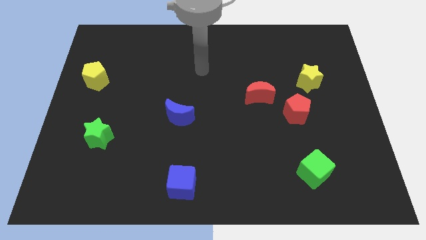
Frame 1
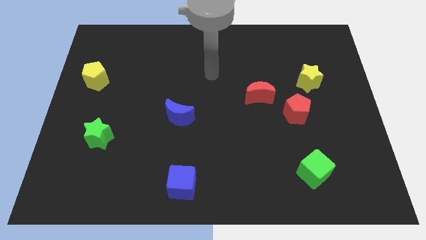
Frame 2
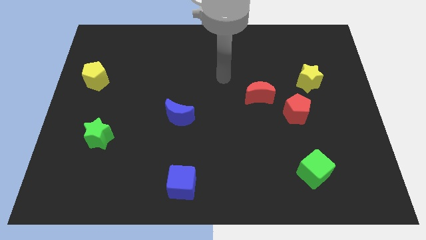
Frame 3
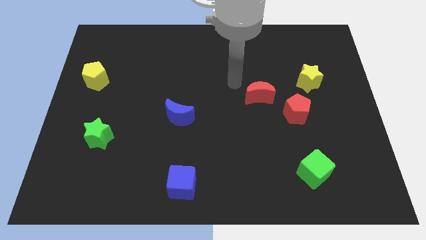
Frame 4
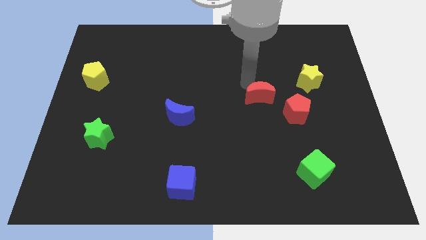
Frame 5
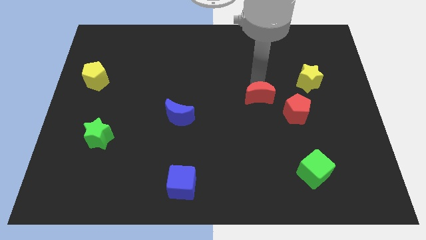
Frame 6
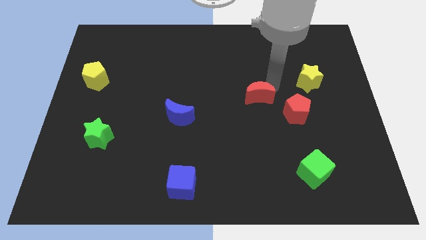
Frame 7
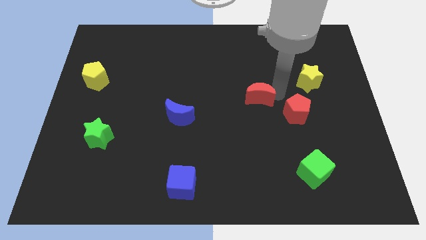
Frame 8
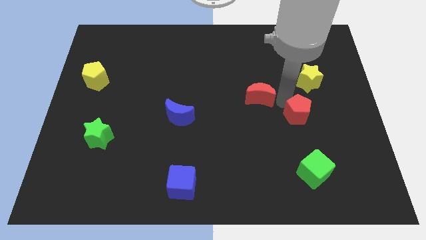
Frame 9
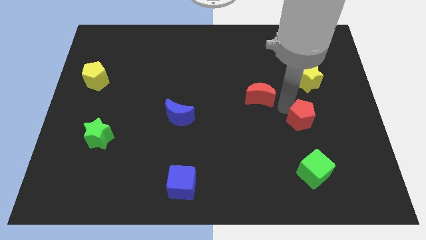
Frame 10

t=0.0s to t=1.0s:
pull the red moon apart from the red pentagon

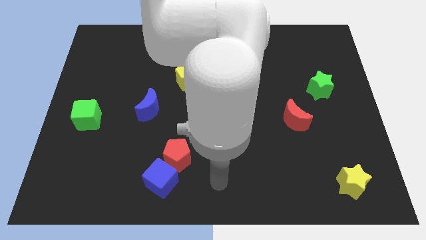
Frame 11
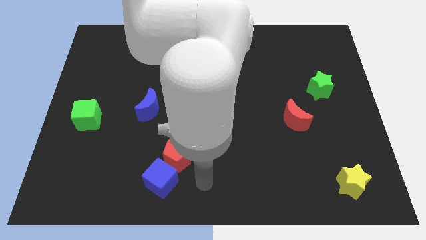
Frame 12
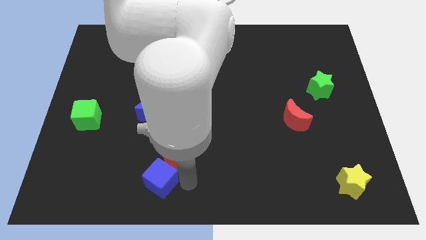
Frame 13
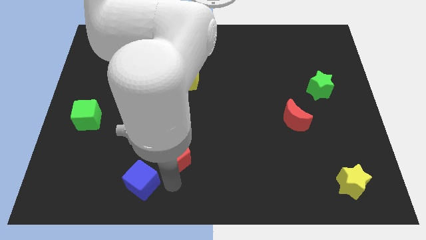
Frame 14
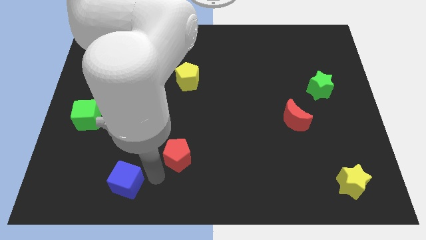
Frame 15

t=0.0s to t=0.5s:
pull the red pentagon apart from the blue cube

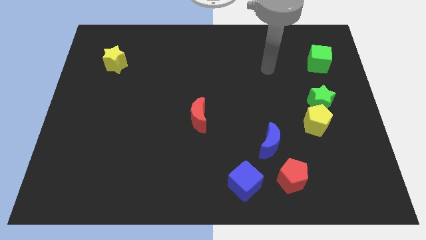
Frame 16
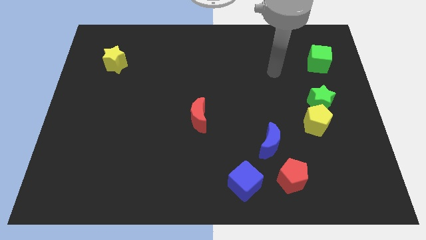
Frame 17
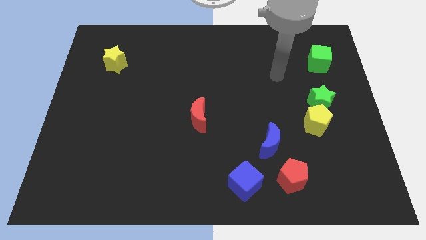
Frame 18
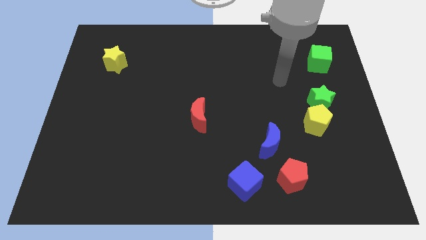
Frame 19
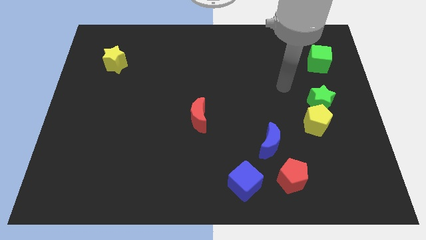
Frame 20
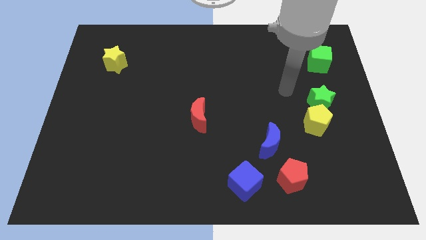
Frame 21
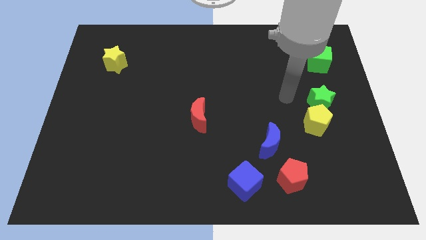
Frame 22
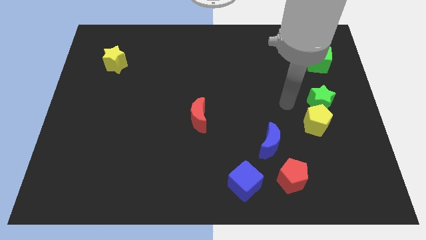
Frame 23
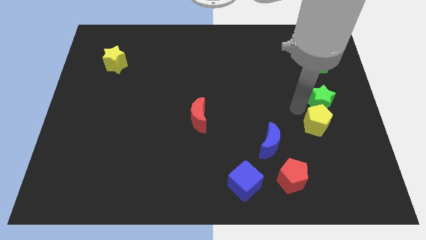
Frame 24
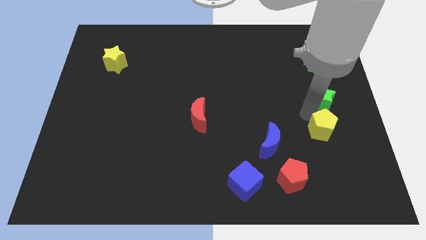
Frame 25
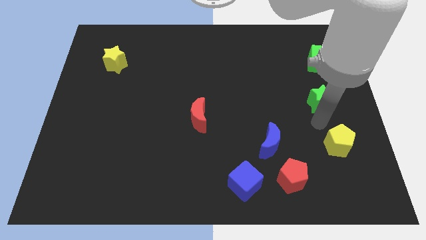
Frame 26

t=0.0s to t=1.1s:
pull the green star apart from the yellow pentagon

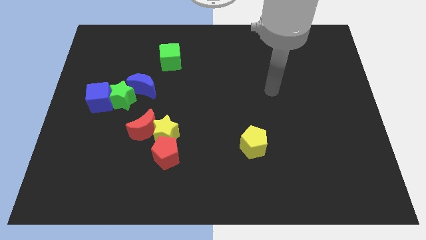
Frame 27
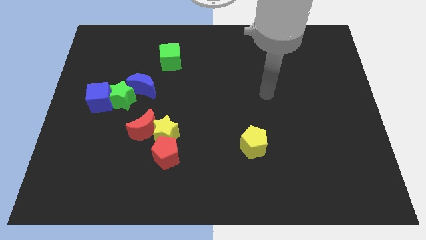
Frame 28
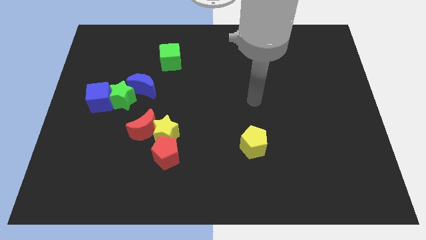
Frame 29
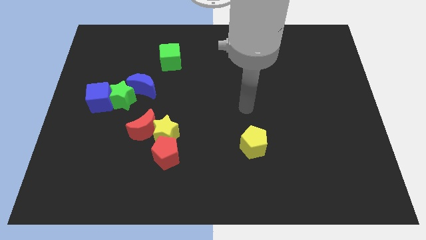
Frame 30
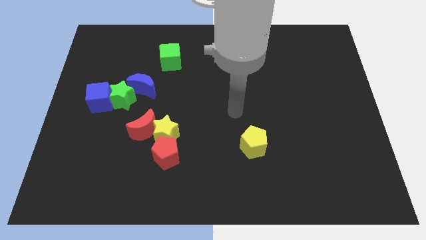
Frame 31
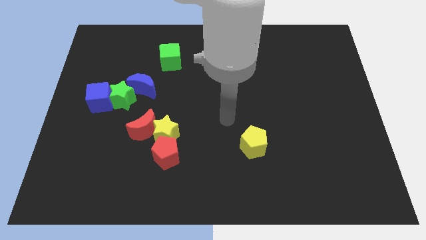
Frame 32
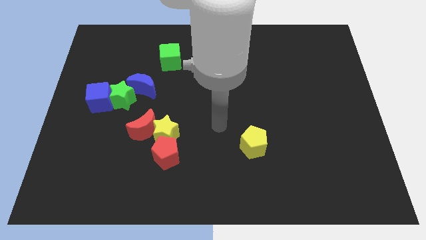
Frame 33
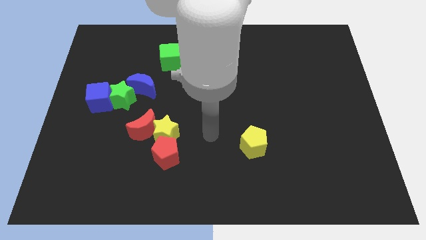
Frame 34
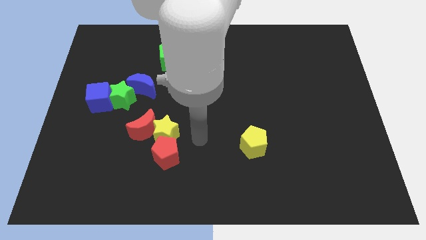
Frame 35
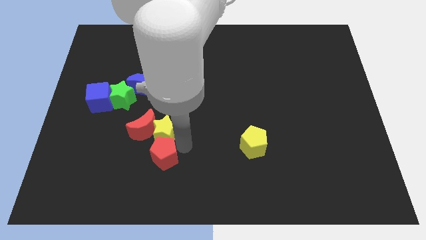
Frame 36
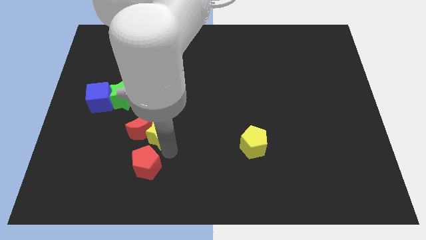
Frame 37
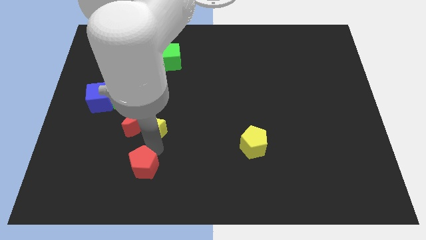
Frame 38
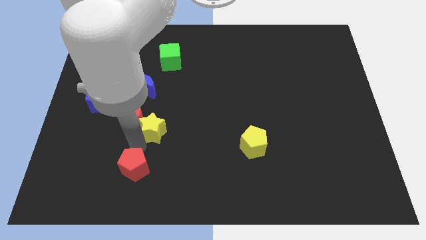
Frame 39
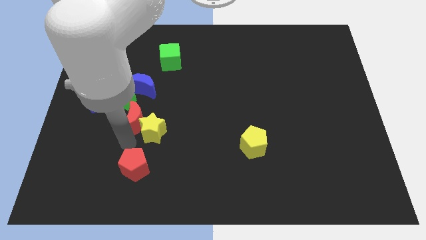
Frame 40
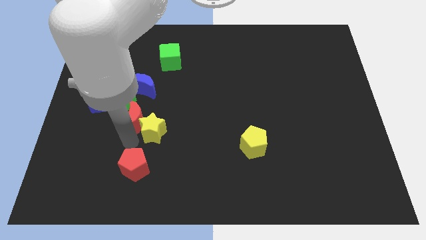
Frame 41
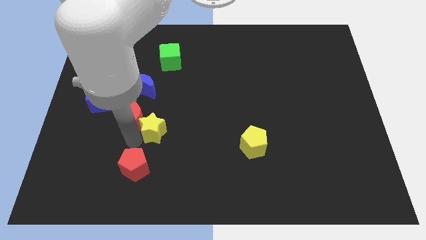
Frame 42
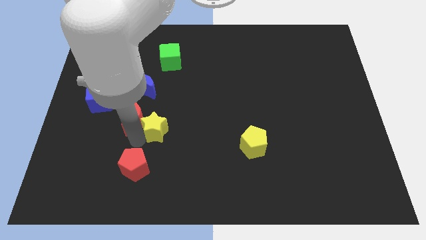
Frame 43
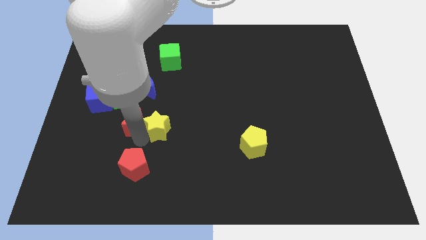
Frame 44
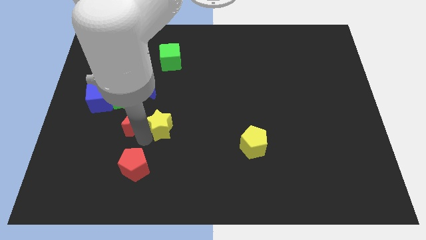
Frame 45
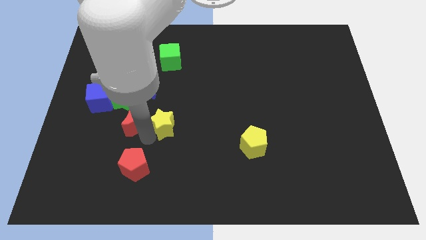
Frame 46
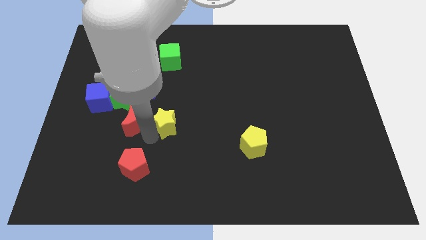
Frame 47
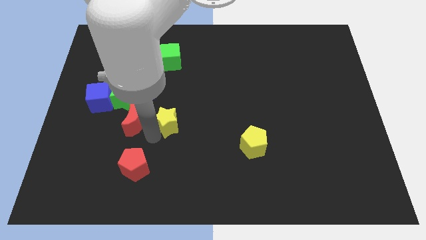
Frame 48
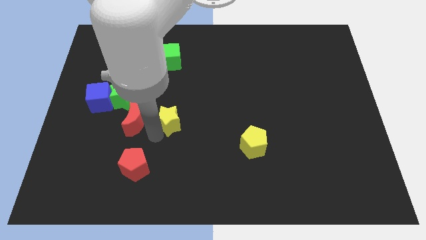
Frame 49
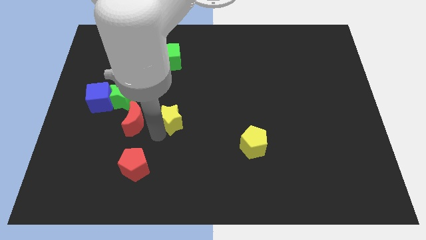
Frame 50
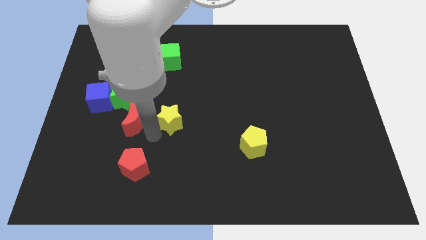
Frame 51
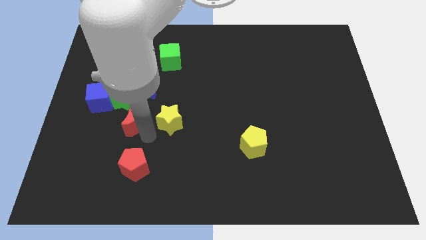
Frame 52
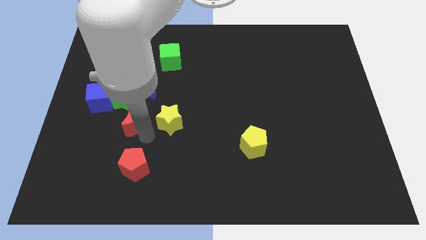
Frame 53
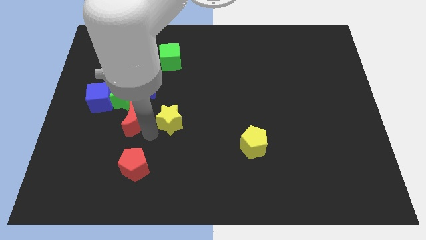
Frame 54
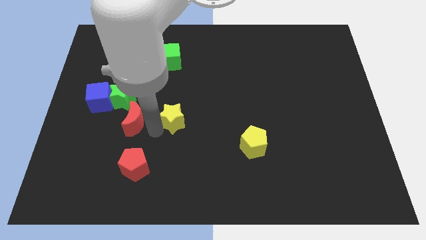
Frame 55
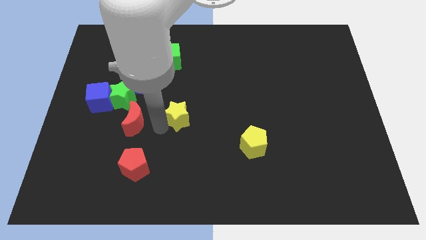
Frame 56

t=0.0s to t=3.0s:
pull the yellow star apart from the red moon and red pentagon

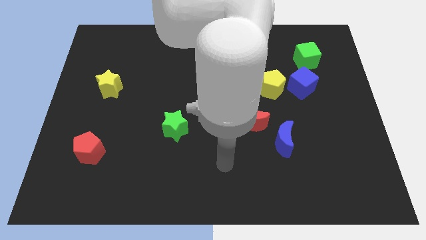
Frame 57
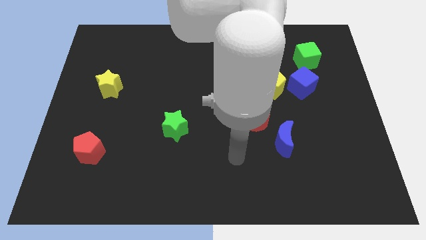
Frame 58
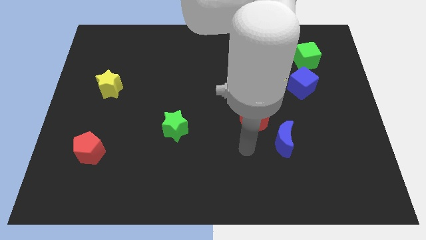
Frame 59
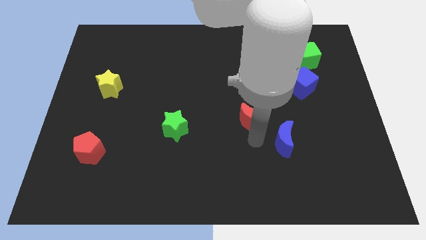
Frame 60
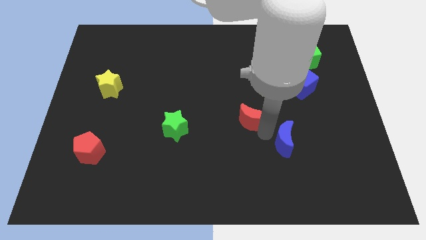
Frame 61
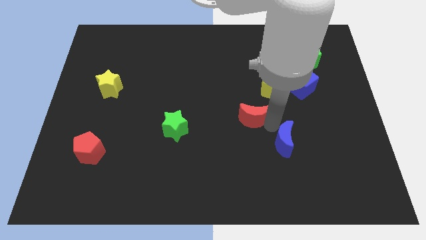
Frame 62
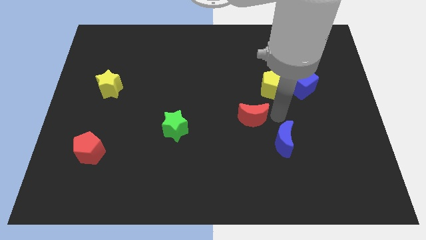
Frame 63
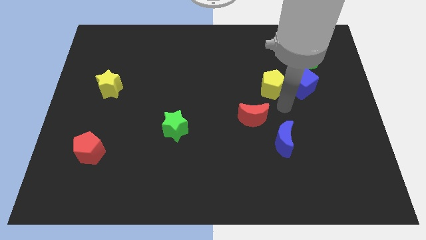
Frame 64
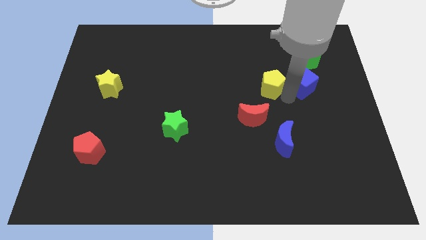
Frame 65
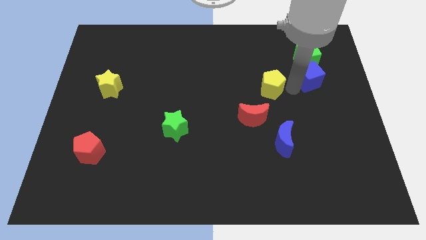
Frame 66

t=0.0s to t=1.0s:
separate the yellow pentagon from the blue cube

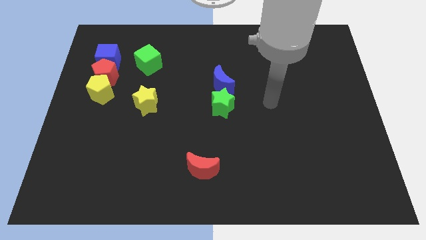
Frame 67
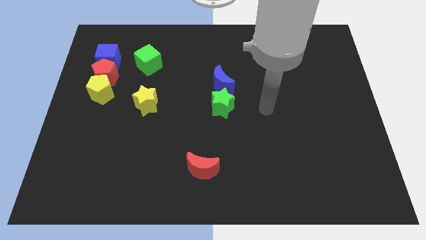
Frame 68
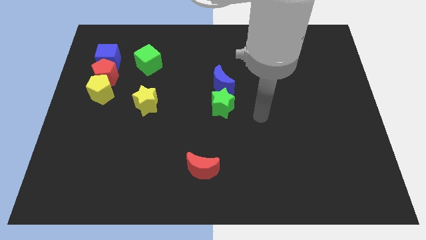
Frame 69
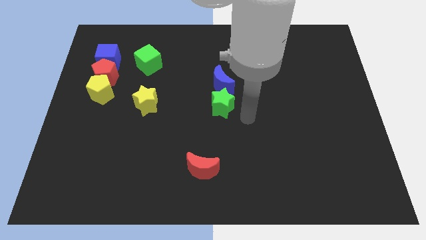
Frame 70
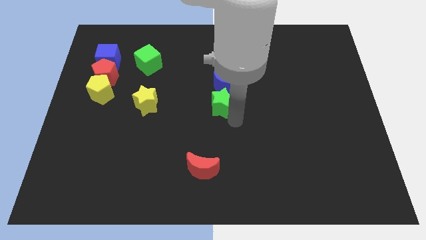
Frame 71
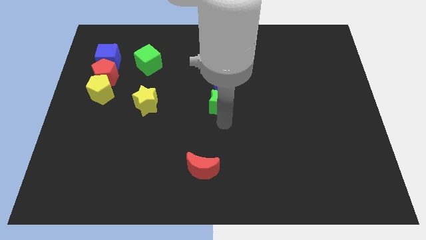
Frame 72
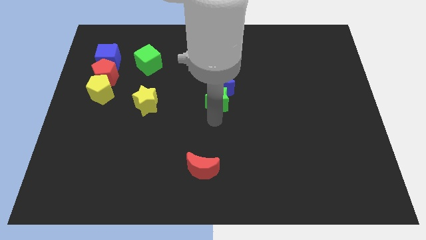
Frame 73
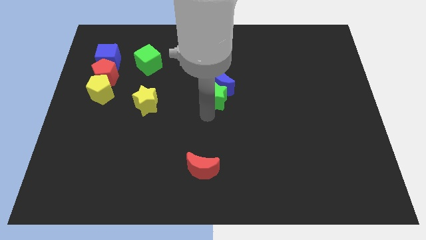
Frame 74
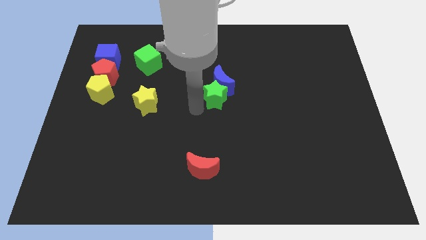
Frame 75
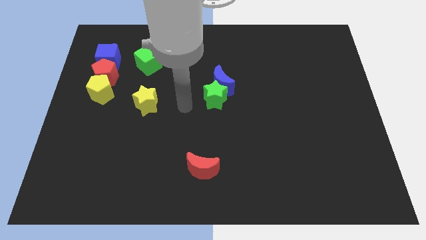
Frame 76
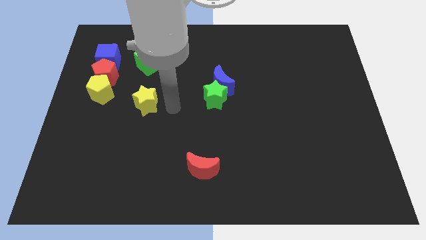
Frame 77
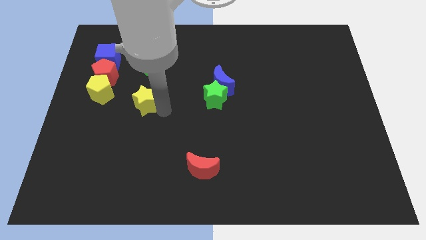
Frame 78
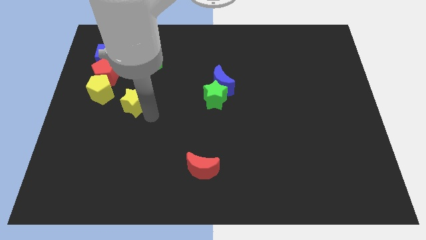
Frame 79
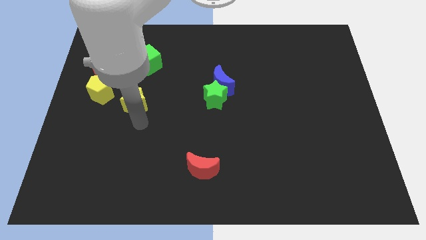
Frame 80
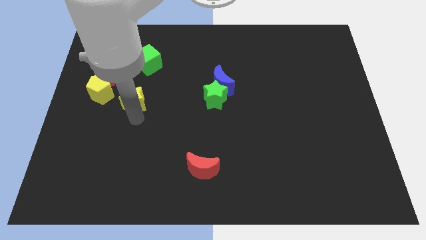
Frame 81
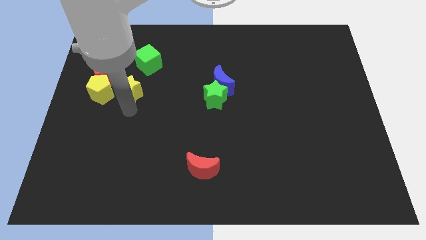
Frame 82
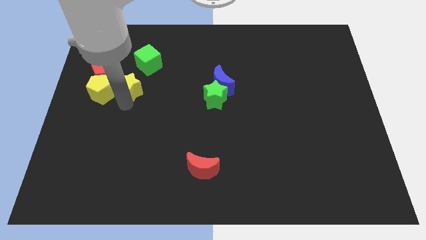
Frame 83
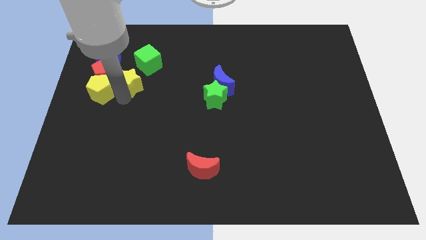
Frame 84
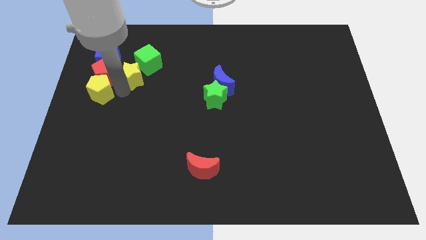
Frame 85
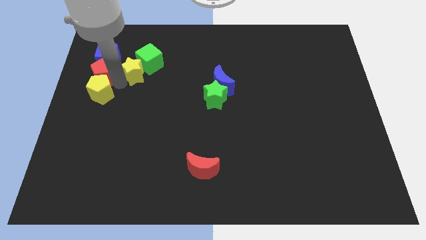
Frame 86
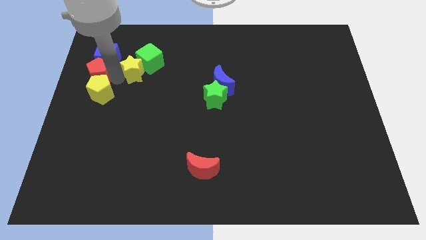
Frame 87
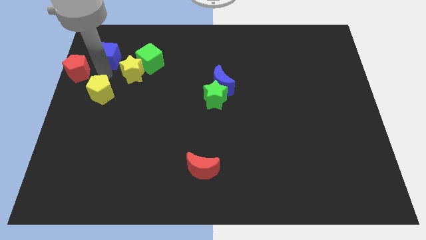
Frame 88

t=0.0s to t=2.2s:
move the yellow pentagon away from the red pentagon

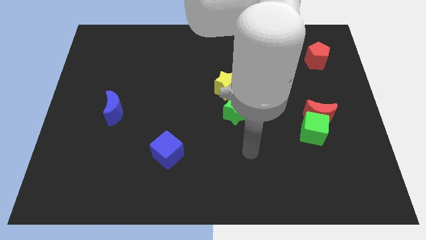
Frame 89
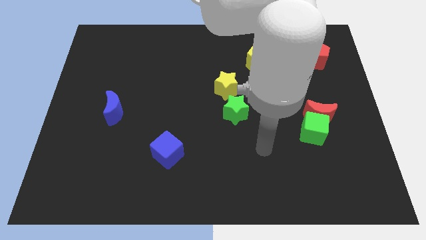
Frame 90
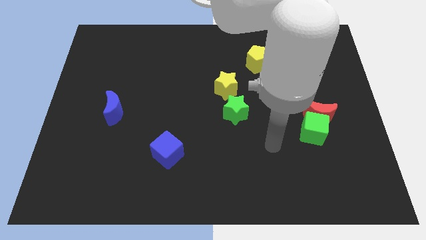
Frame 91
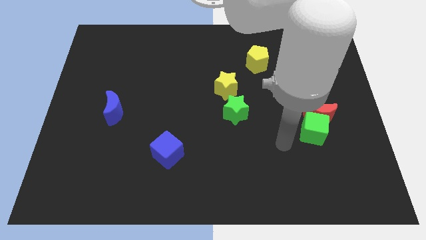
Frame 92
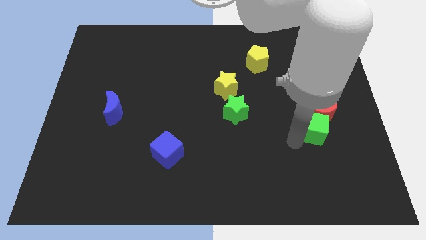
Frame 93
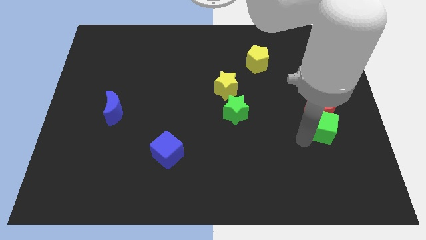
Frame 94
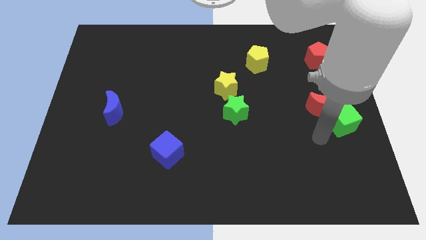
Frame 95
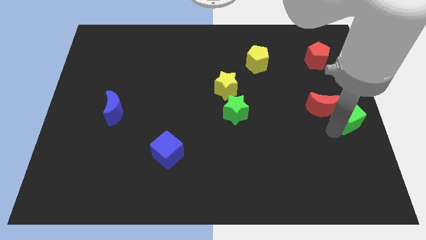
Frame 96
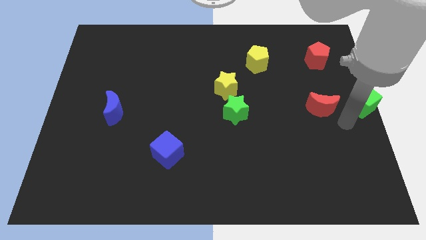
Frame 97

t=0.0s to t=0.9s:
move the red moon away from the green cube
